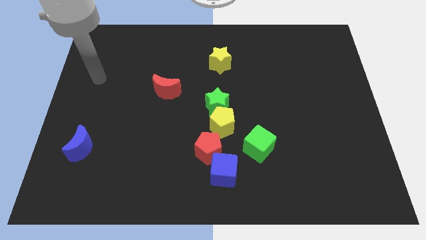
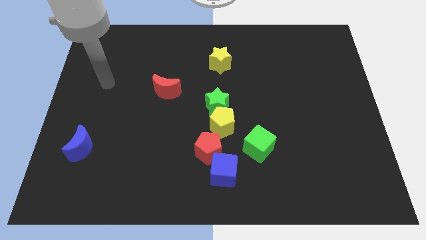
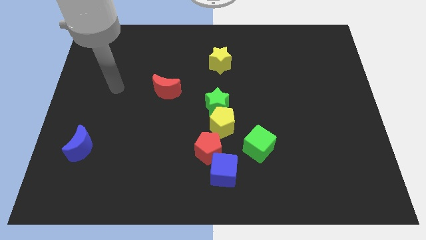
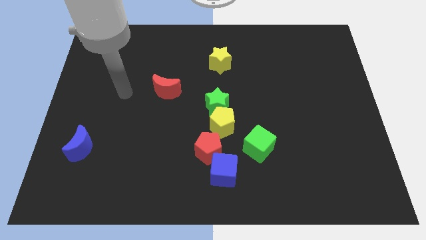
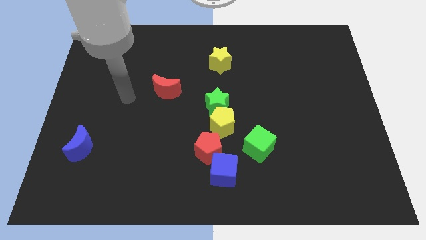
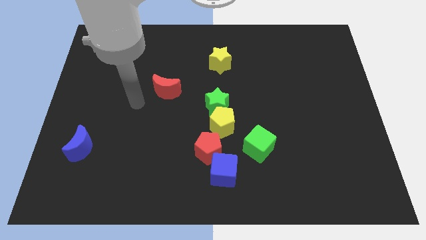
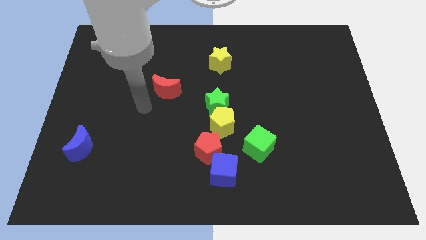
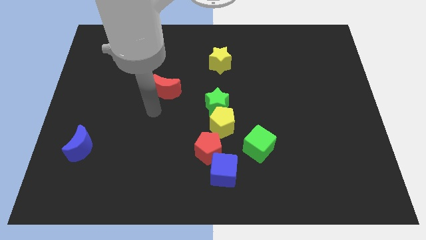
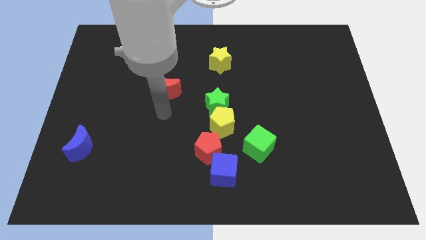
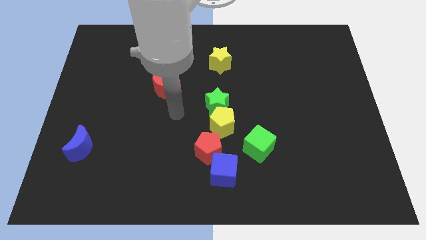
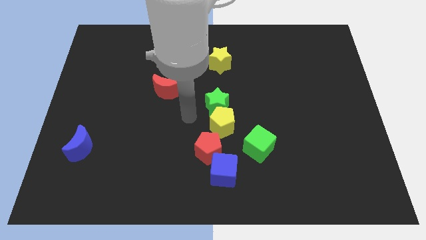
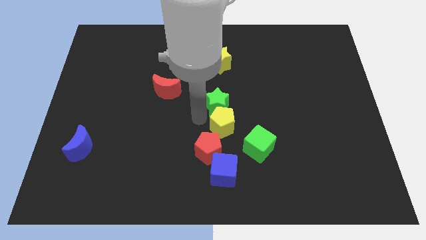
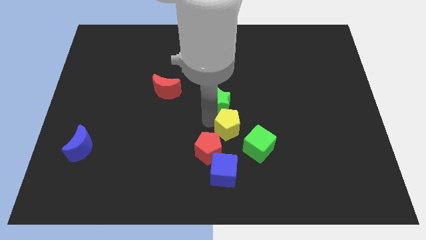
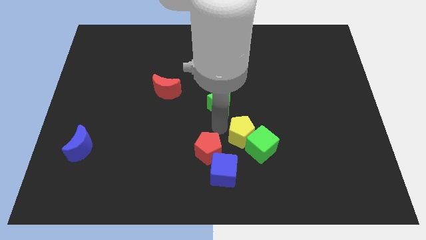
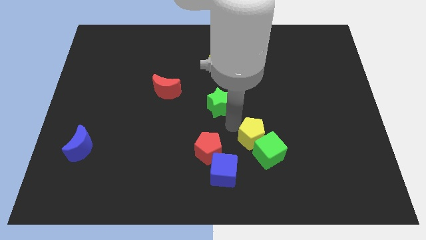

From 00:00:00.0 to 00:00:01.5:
separate the green star from the yellow pentagon

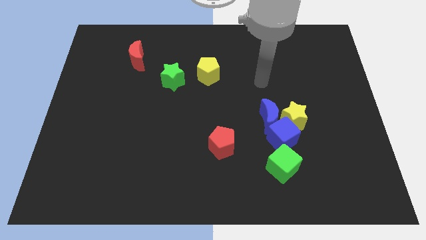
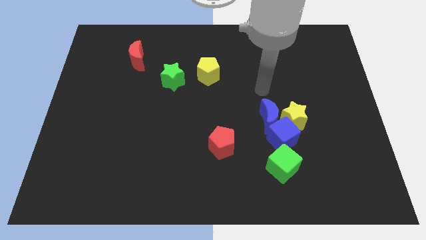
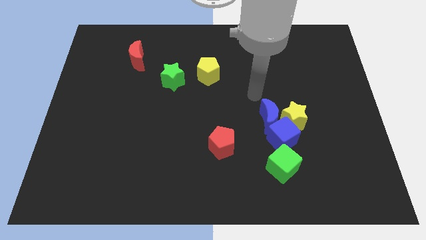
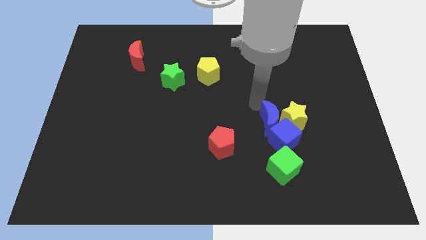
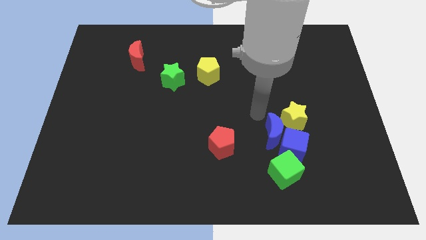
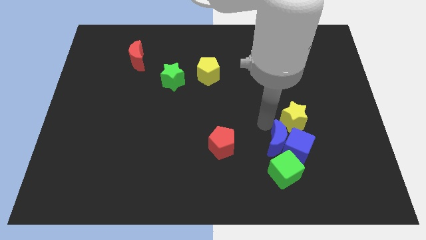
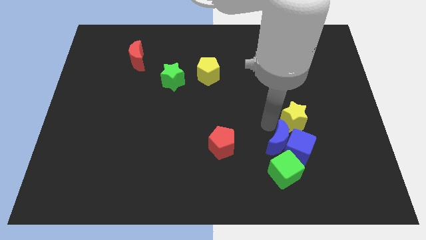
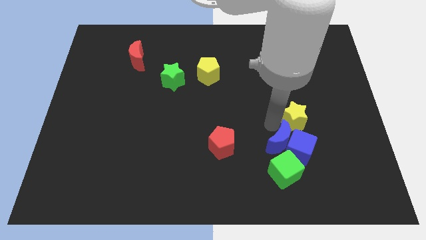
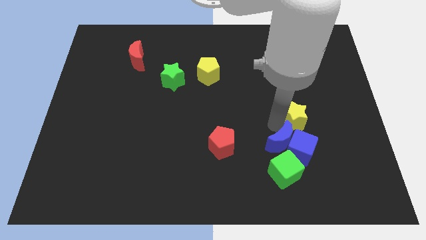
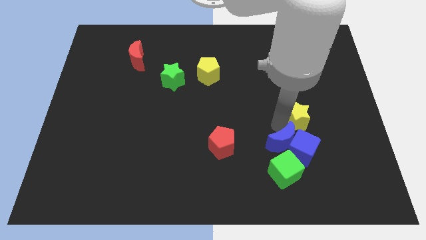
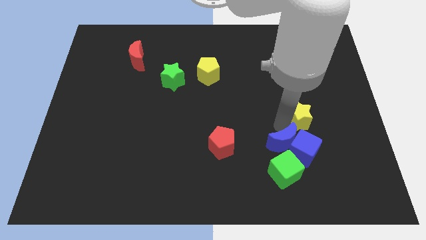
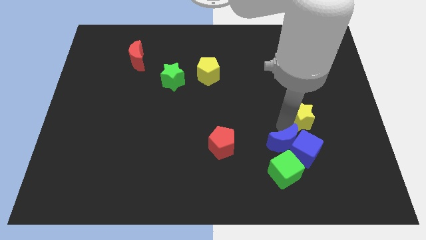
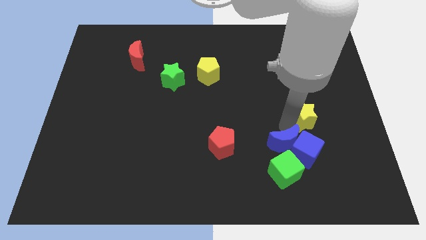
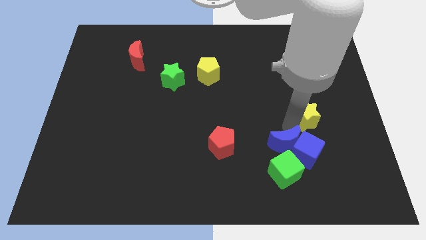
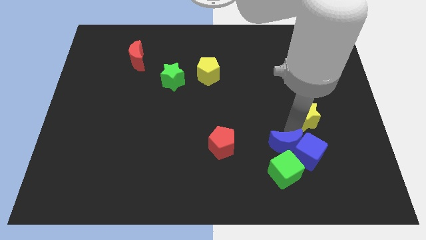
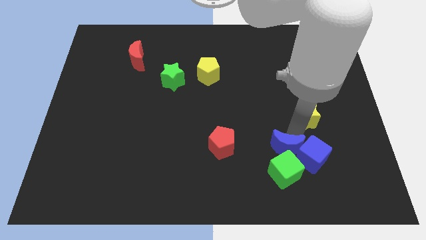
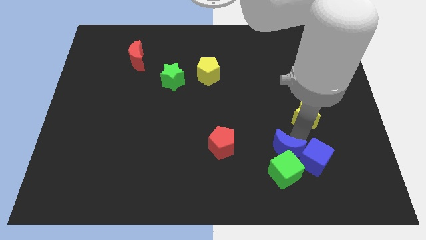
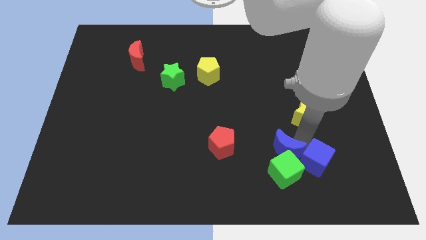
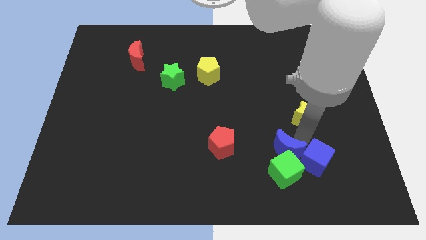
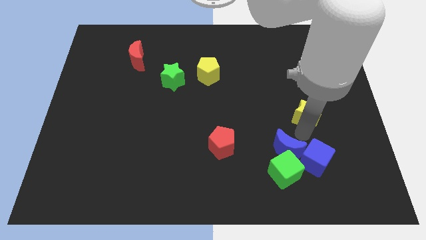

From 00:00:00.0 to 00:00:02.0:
move the yellow star away from the blue moon and blue cube

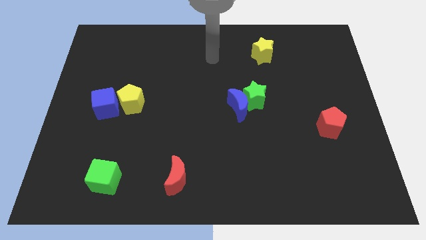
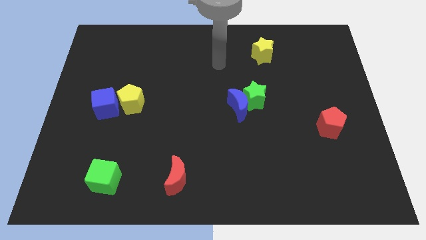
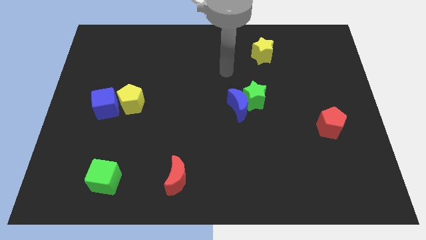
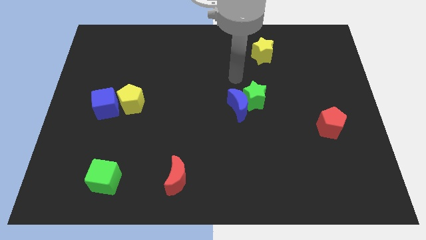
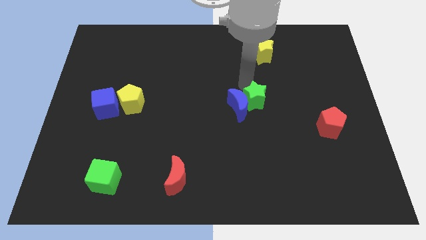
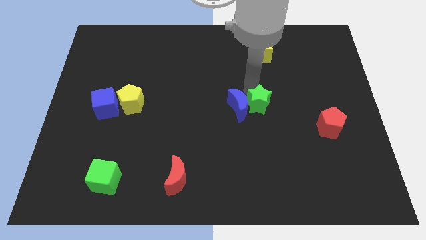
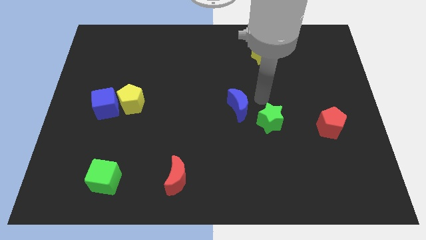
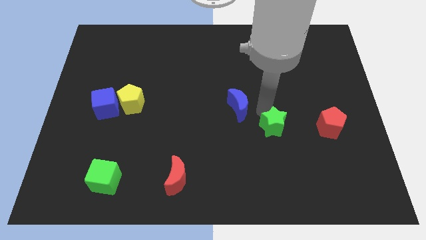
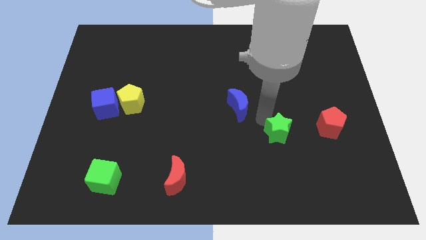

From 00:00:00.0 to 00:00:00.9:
separate the blue moon from the green star

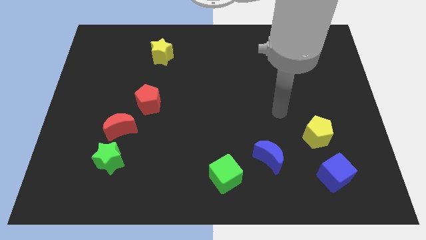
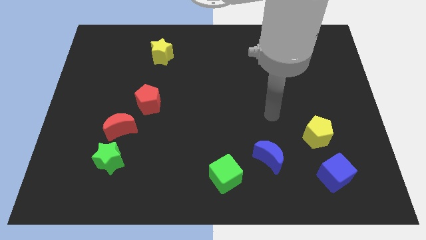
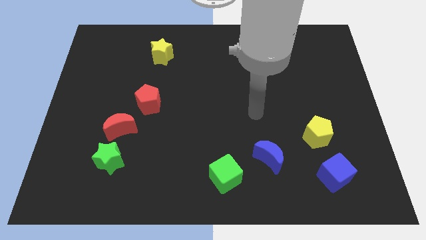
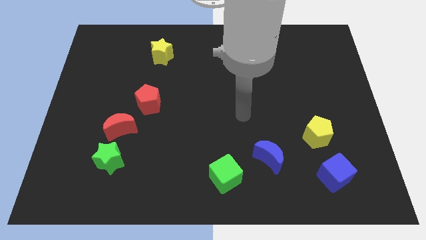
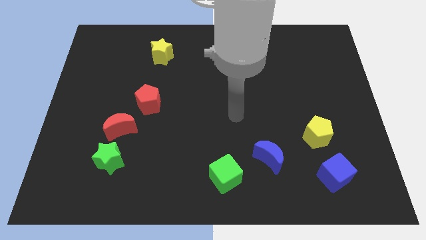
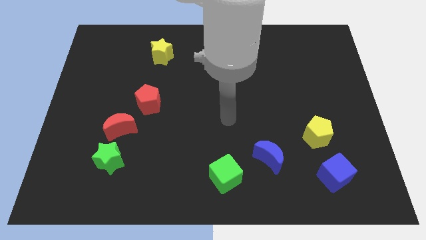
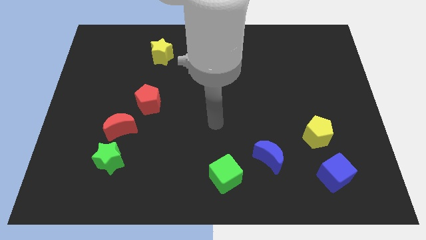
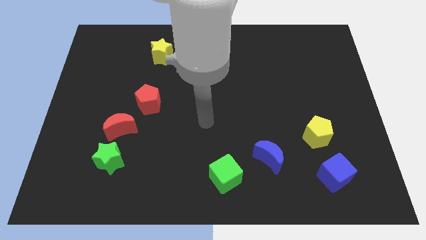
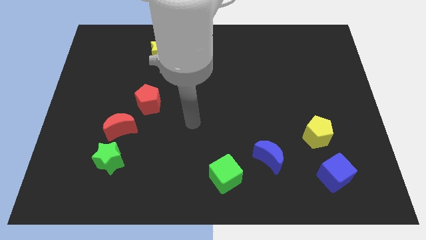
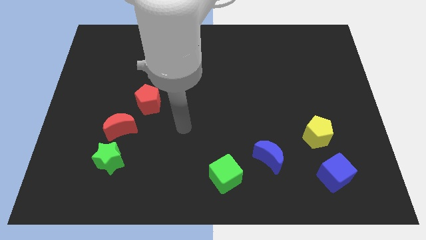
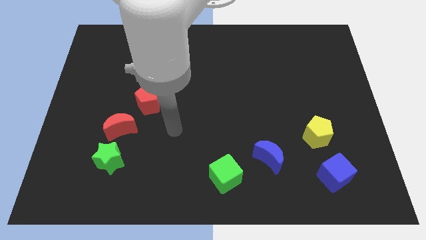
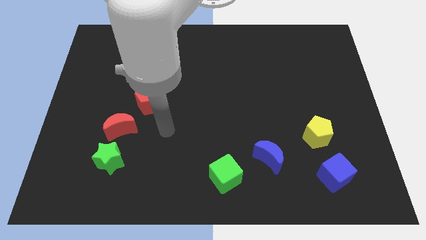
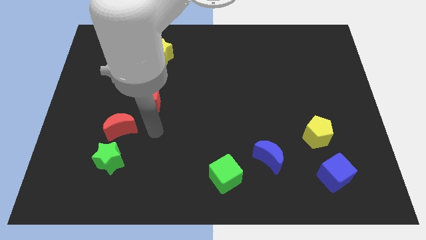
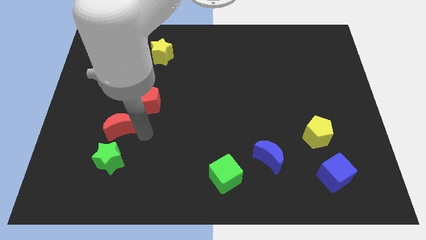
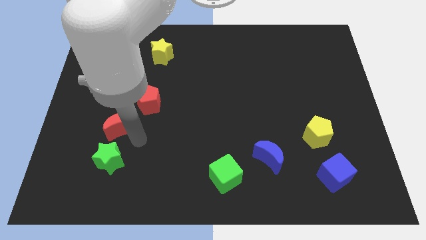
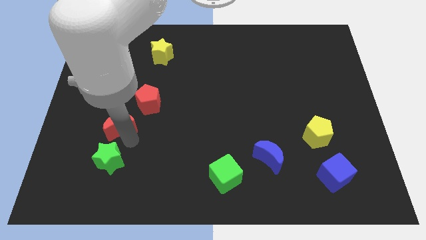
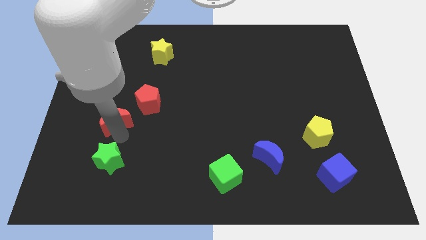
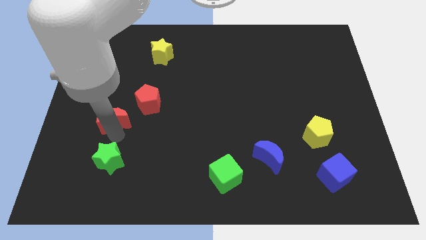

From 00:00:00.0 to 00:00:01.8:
pull the green star apart from the red moon

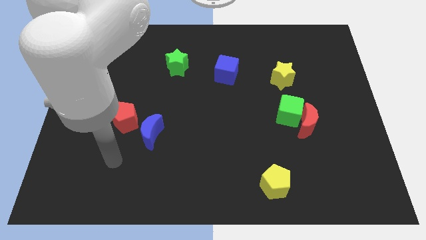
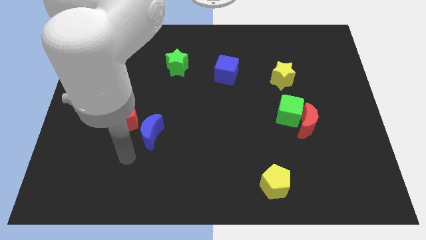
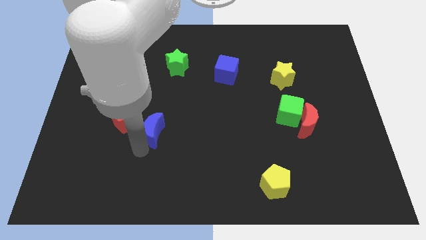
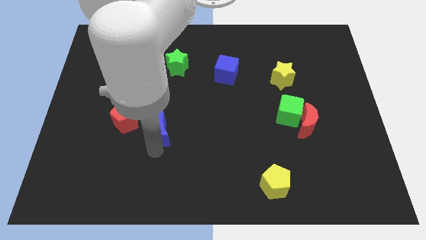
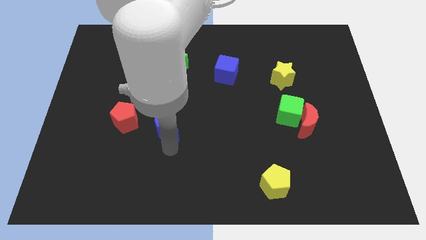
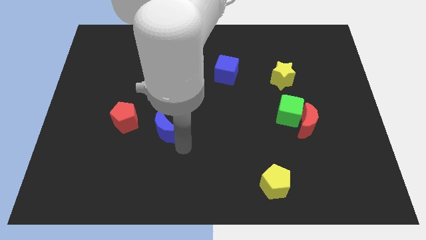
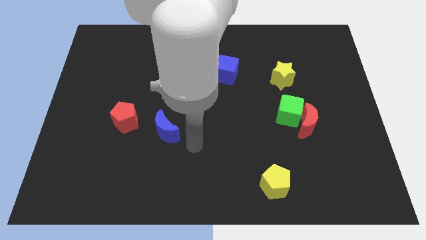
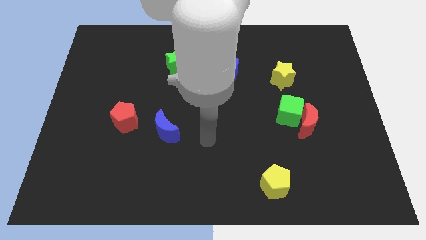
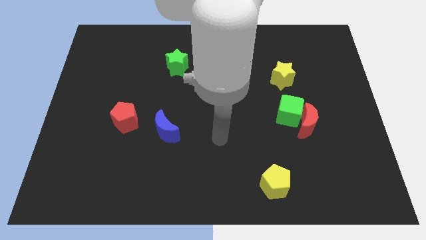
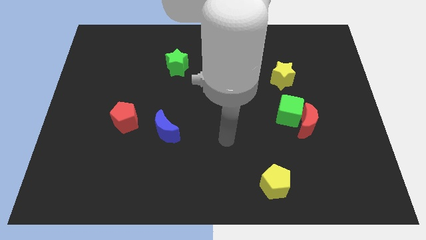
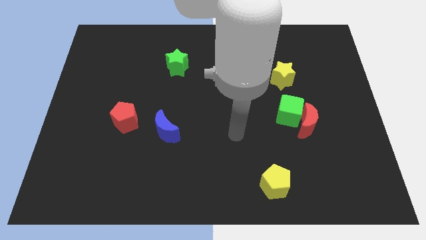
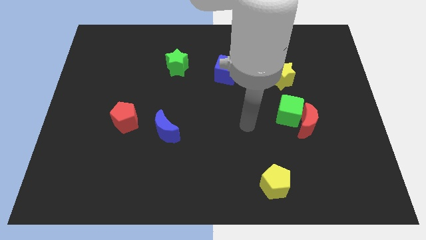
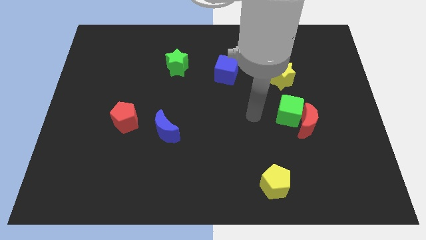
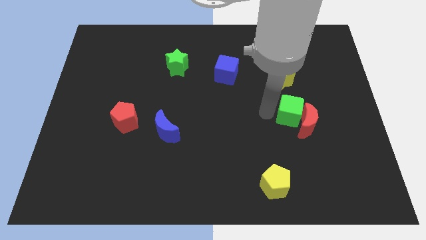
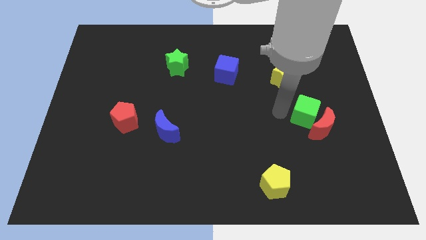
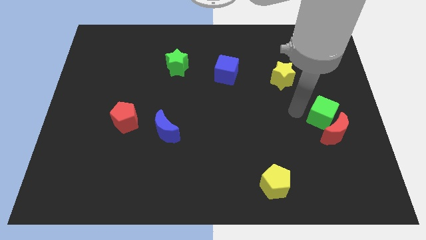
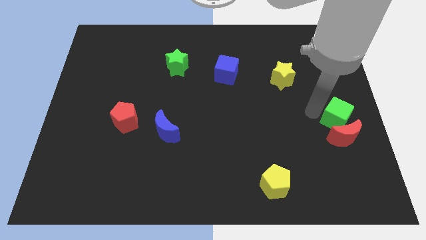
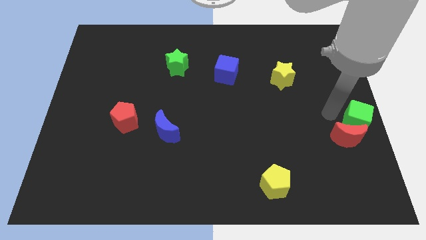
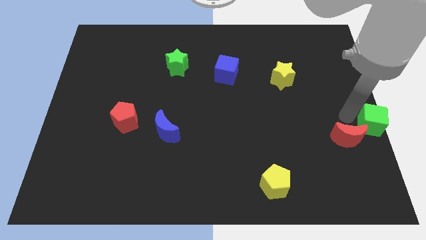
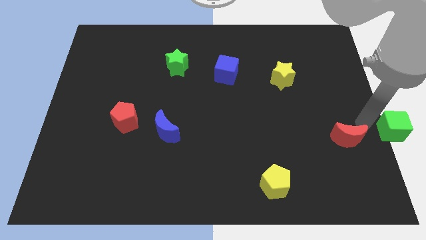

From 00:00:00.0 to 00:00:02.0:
pull the red moon apart from the green cube

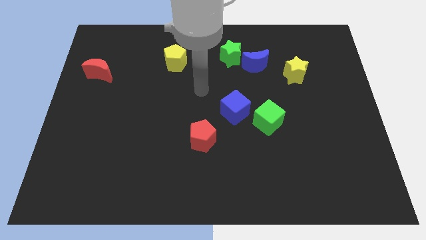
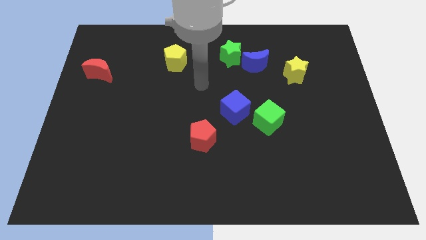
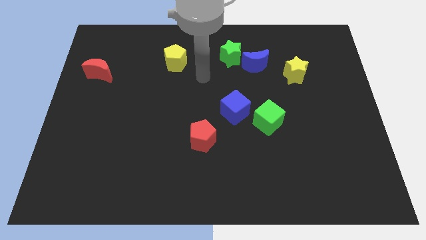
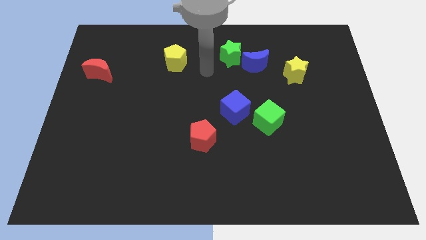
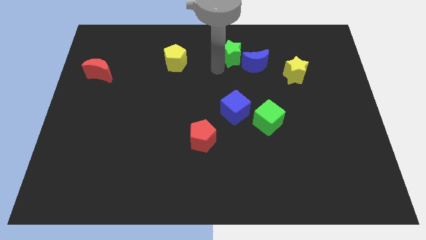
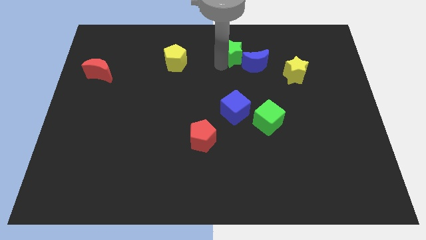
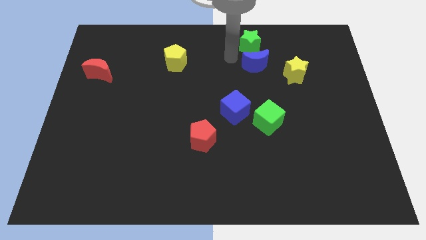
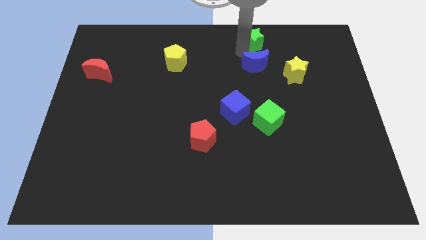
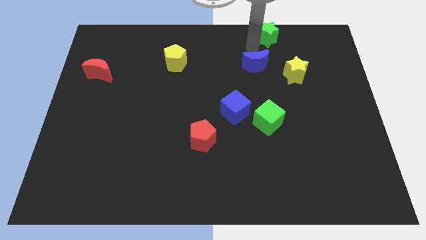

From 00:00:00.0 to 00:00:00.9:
move the blue moon away from the green star

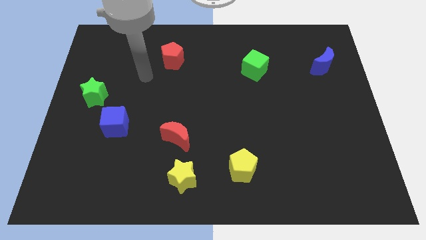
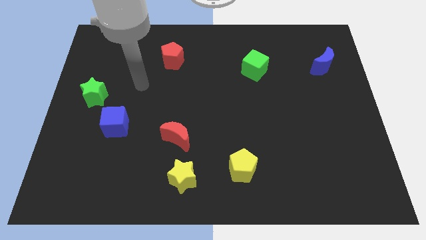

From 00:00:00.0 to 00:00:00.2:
pull the red moon apart from the yellow star
